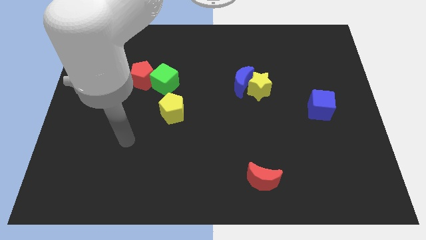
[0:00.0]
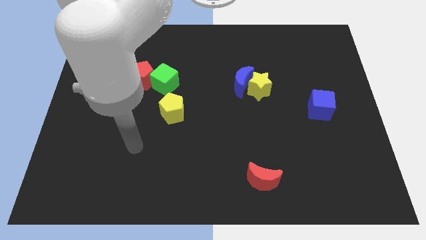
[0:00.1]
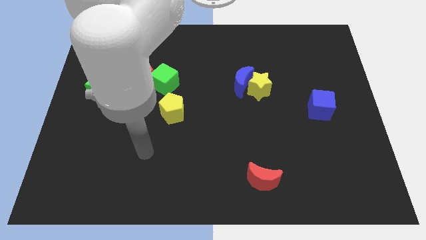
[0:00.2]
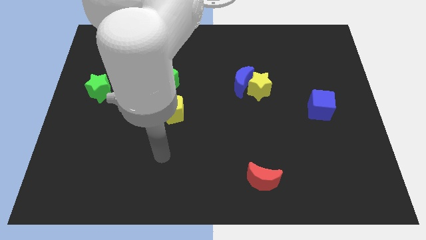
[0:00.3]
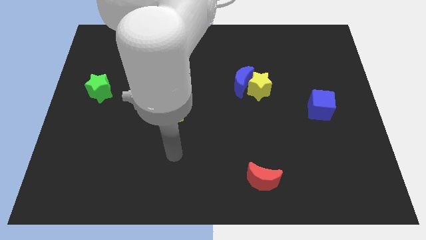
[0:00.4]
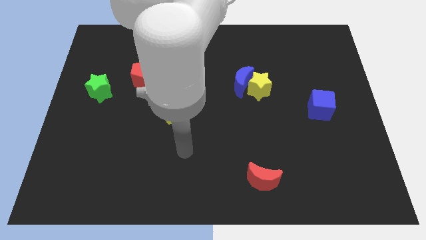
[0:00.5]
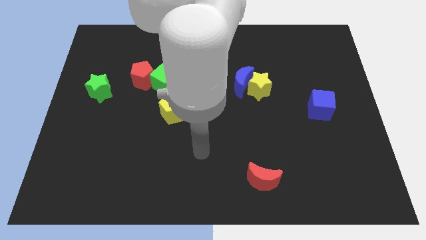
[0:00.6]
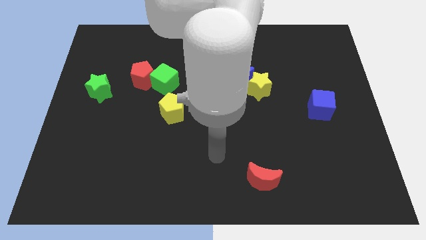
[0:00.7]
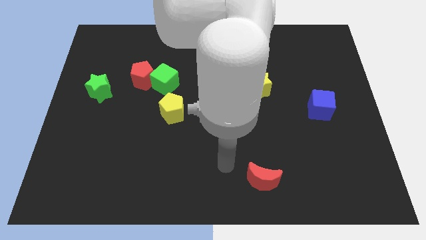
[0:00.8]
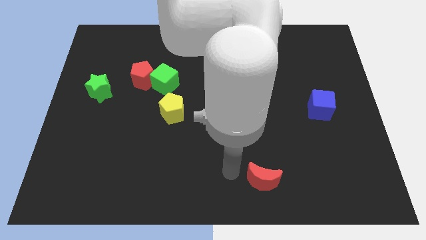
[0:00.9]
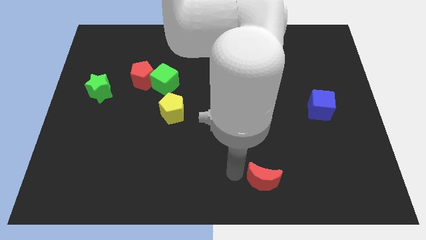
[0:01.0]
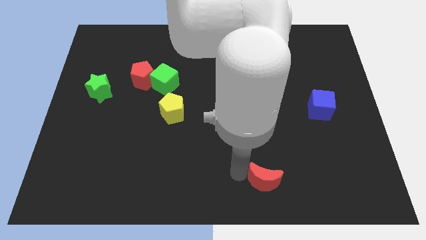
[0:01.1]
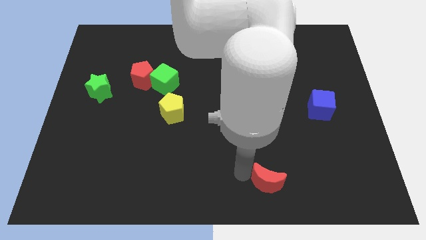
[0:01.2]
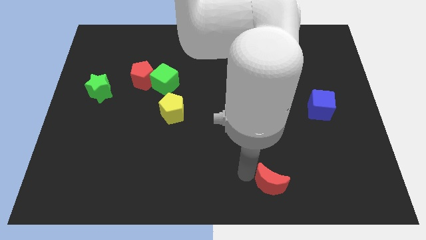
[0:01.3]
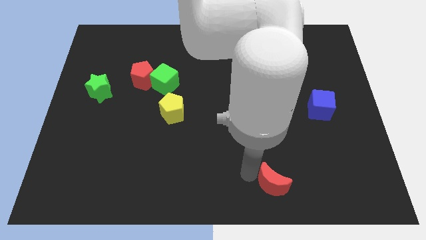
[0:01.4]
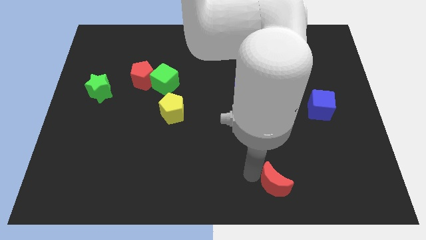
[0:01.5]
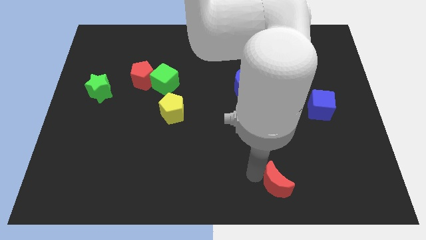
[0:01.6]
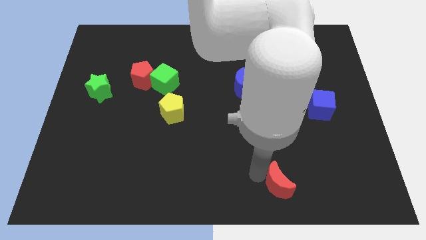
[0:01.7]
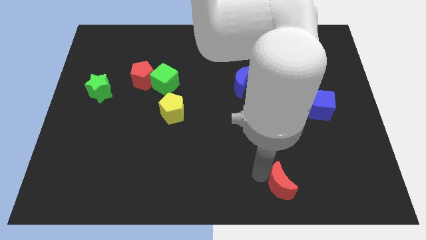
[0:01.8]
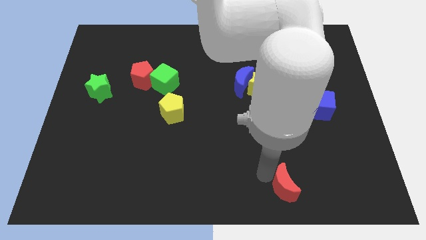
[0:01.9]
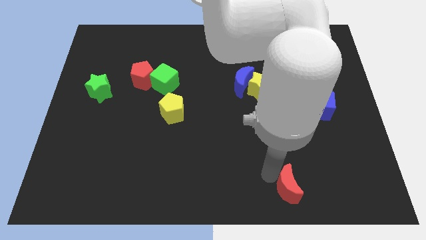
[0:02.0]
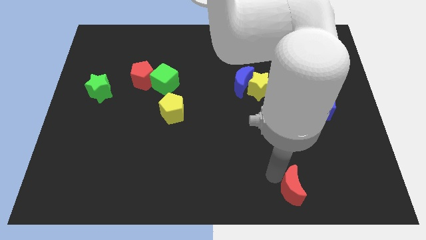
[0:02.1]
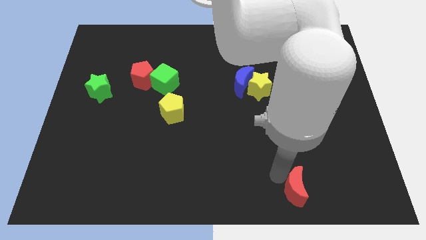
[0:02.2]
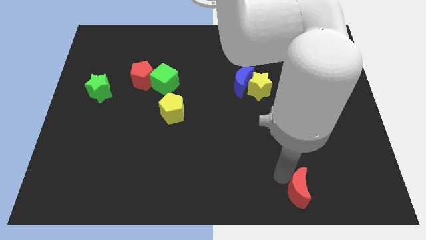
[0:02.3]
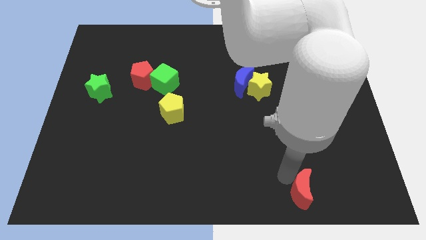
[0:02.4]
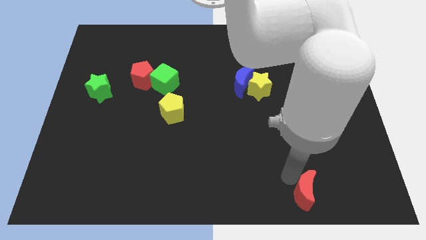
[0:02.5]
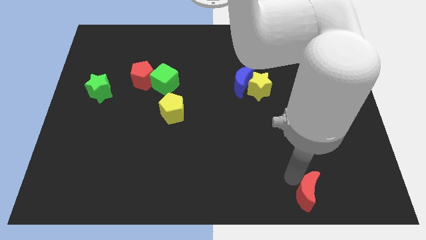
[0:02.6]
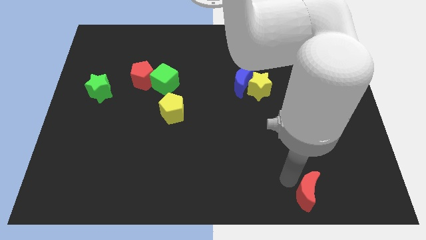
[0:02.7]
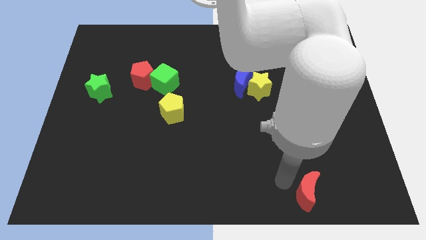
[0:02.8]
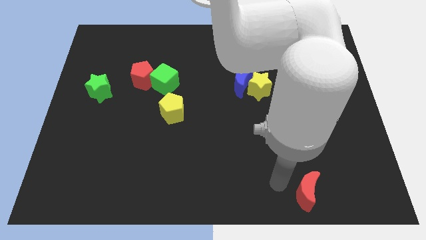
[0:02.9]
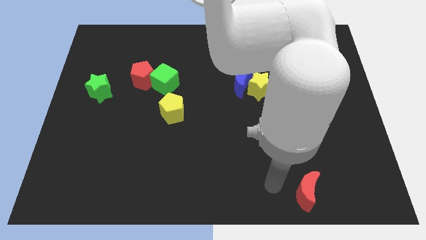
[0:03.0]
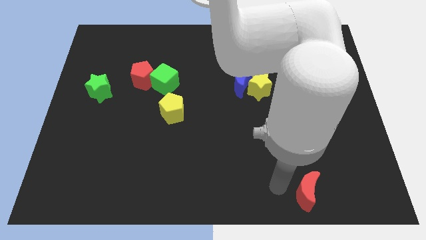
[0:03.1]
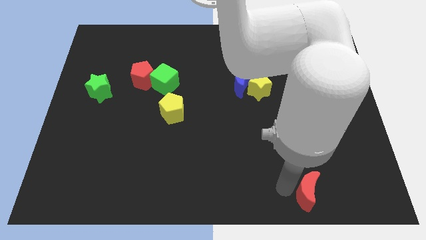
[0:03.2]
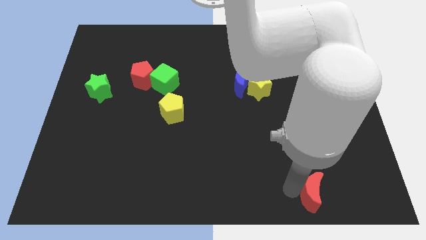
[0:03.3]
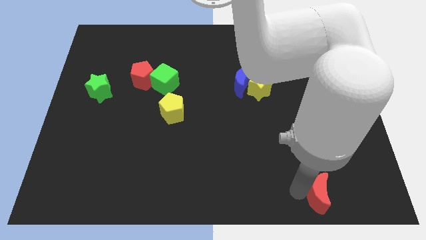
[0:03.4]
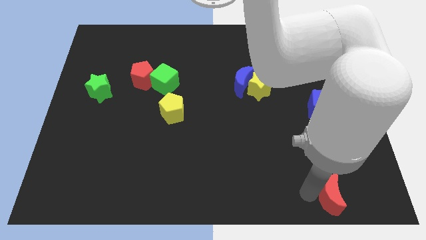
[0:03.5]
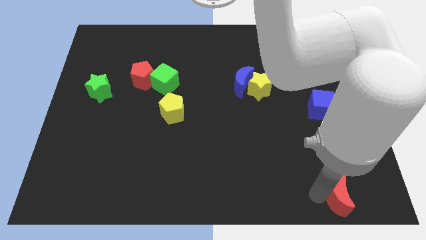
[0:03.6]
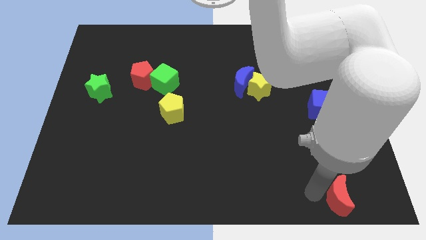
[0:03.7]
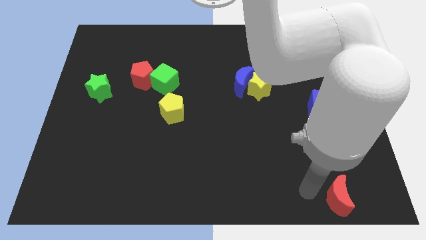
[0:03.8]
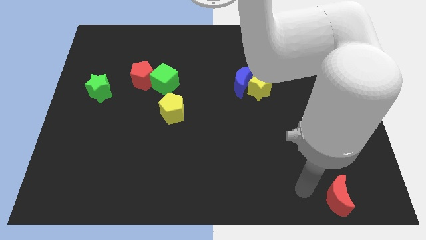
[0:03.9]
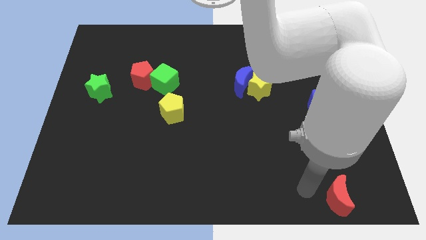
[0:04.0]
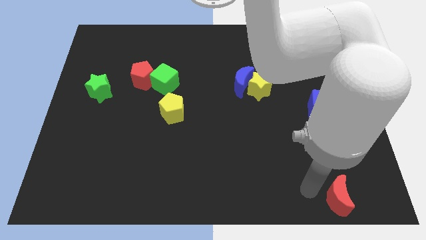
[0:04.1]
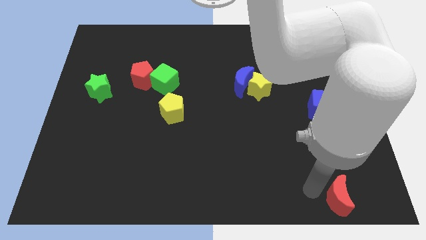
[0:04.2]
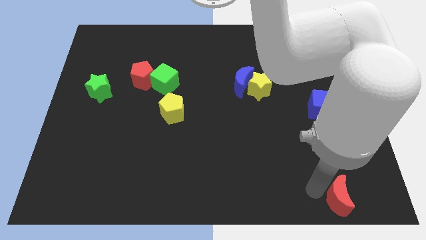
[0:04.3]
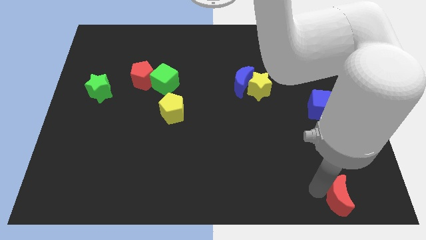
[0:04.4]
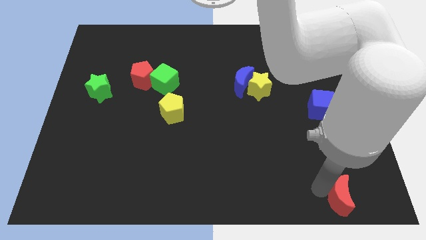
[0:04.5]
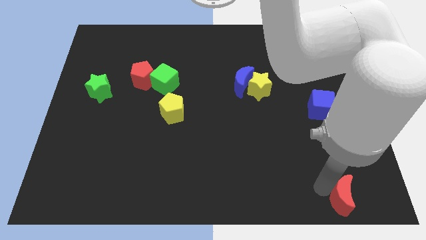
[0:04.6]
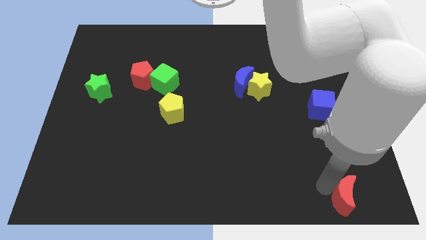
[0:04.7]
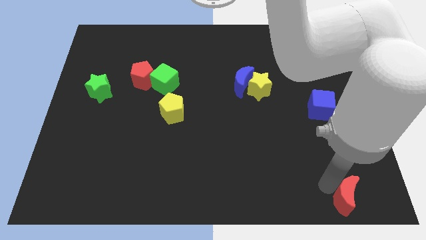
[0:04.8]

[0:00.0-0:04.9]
put the red moon to the lower right corner

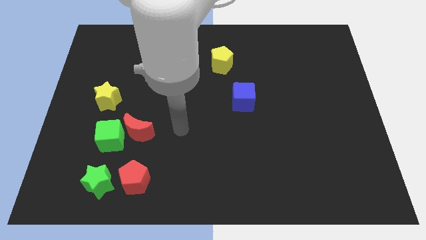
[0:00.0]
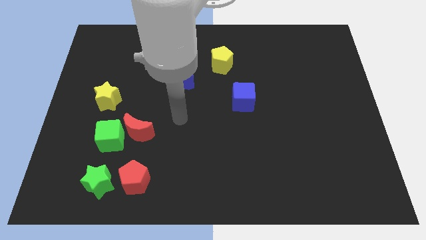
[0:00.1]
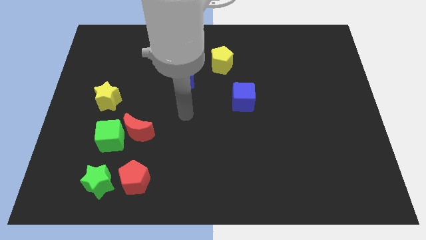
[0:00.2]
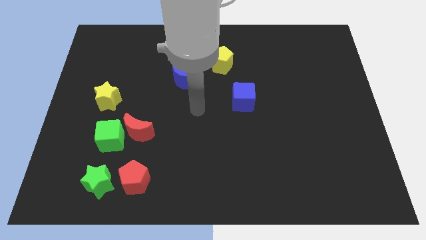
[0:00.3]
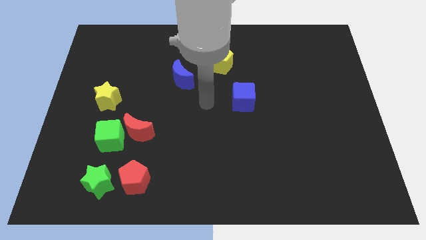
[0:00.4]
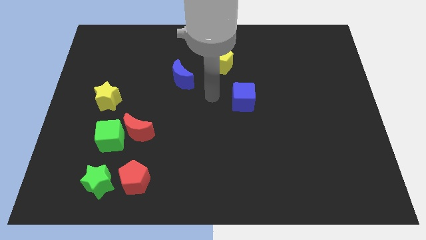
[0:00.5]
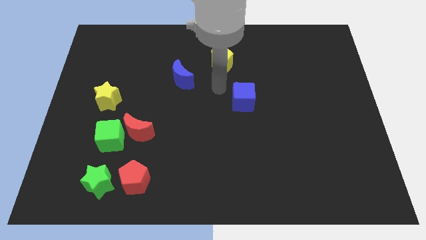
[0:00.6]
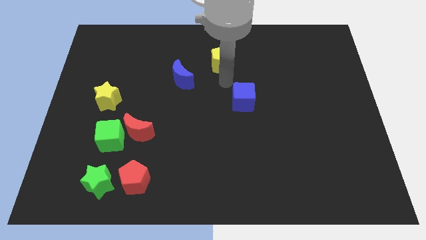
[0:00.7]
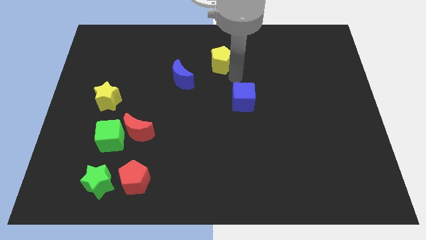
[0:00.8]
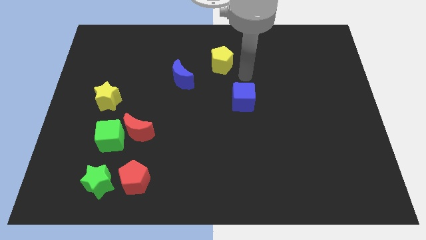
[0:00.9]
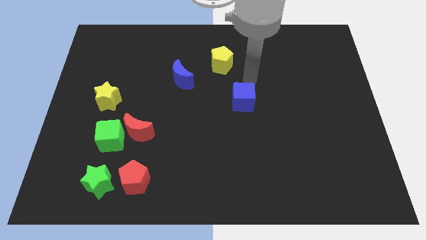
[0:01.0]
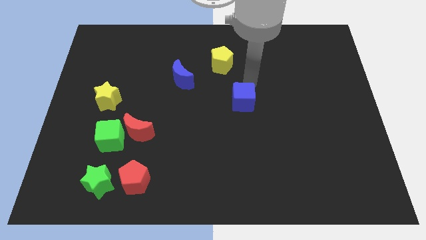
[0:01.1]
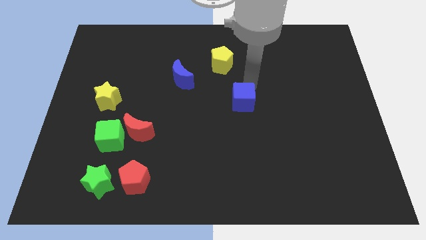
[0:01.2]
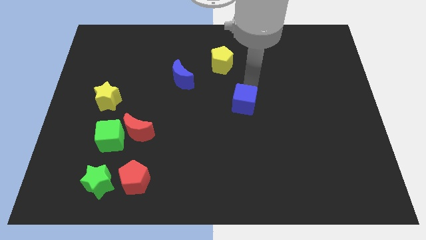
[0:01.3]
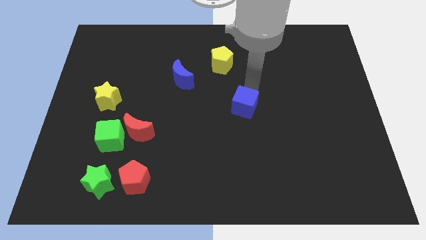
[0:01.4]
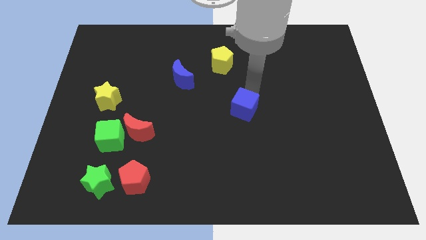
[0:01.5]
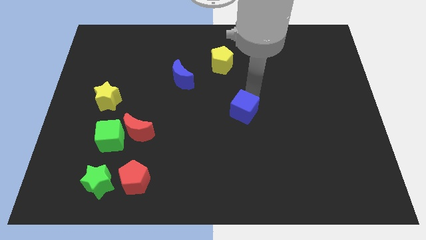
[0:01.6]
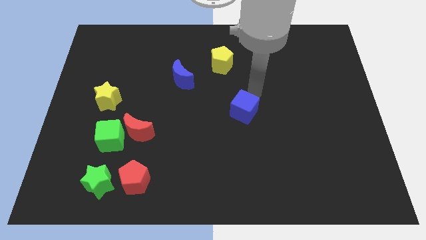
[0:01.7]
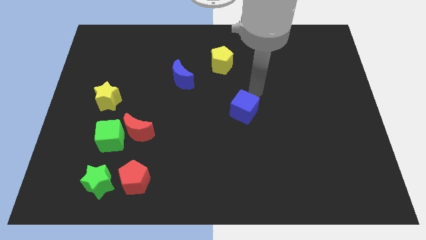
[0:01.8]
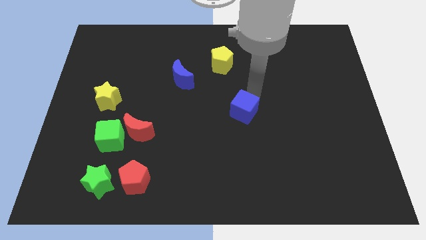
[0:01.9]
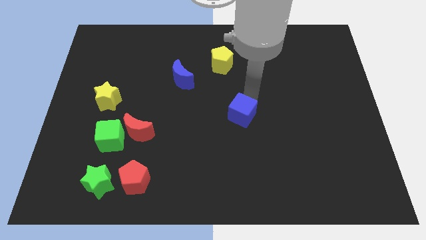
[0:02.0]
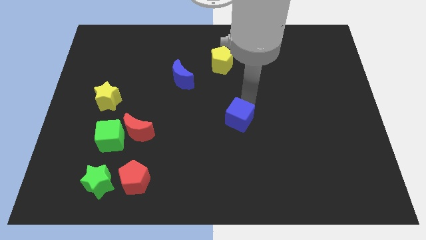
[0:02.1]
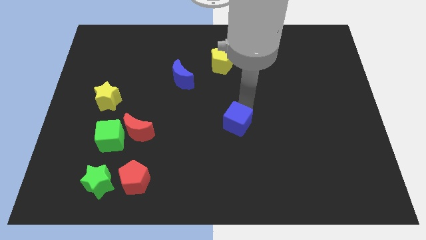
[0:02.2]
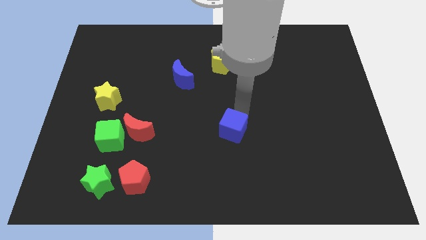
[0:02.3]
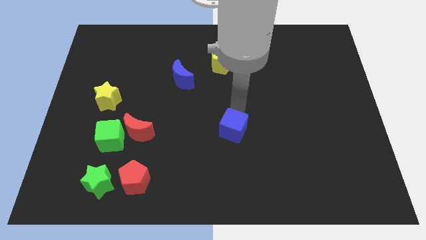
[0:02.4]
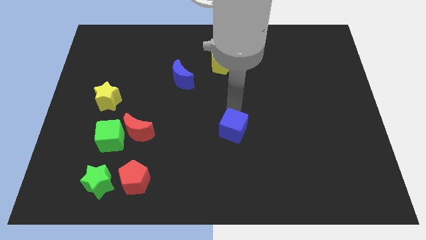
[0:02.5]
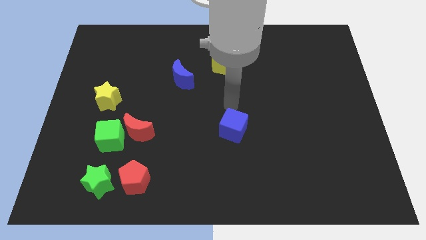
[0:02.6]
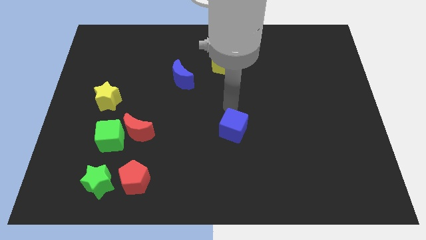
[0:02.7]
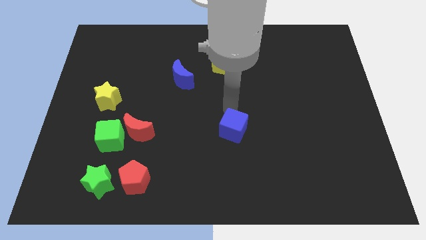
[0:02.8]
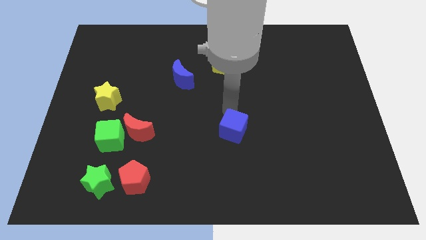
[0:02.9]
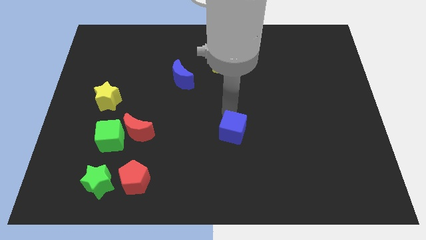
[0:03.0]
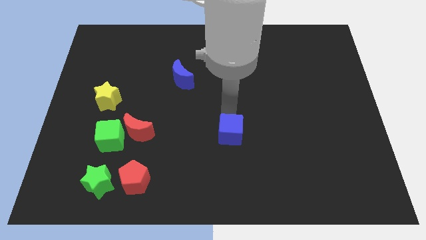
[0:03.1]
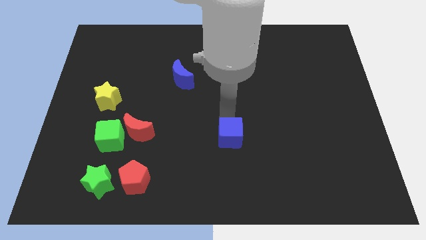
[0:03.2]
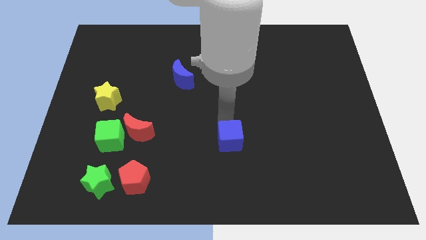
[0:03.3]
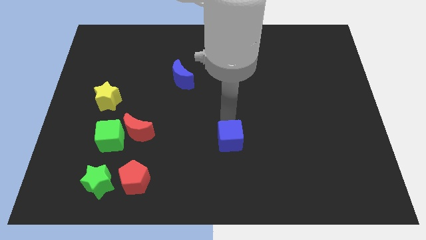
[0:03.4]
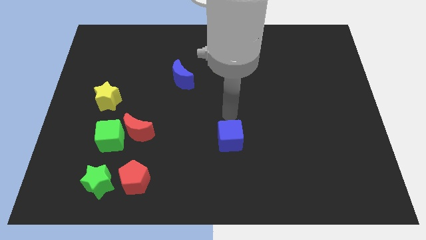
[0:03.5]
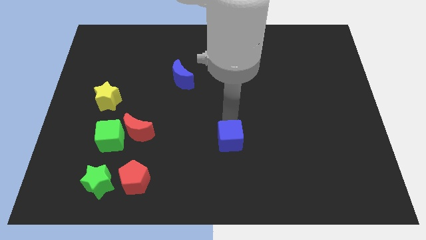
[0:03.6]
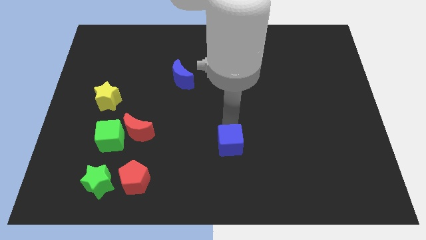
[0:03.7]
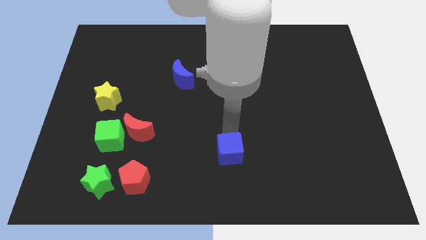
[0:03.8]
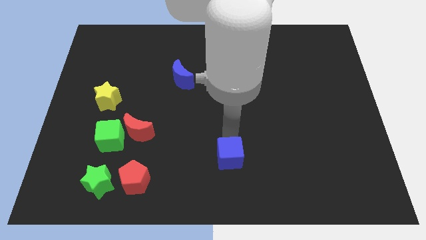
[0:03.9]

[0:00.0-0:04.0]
slide the blue cube to the bottom
